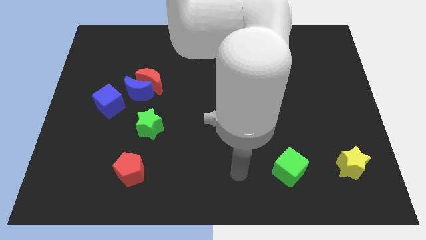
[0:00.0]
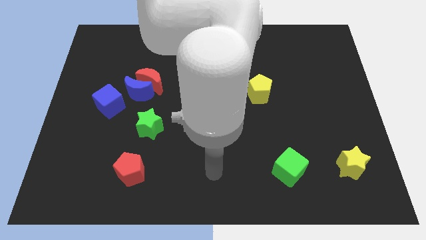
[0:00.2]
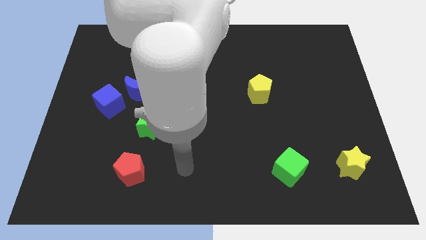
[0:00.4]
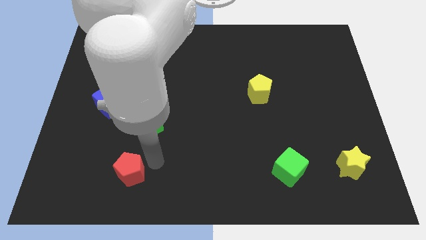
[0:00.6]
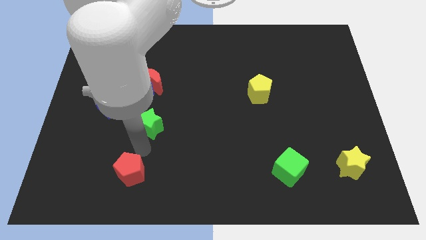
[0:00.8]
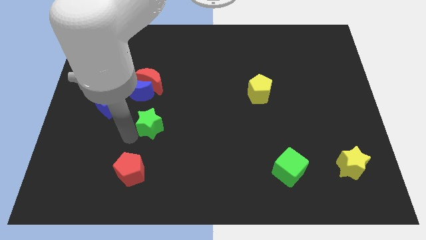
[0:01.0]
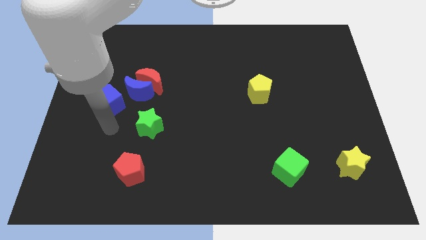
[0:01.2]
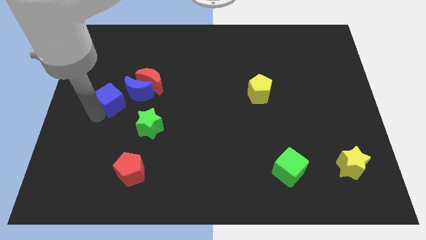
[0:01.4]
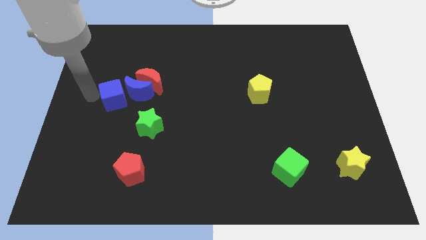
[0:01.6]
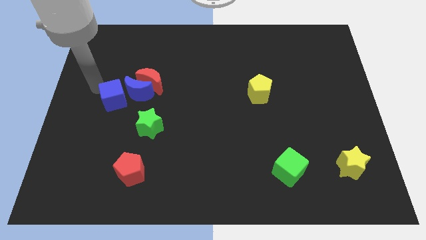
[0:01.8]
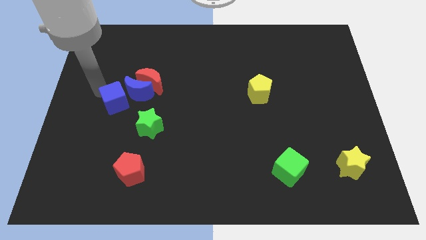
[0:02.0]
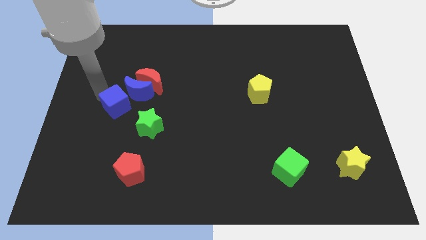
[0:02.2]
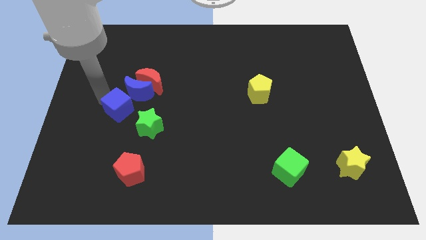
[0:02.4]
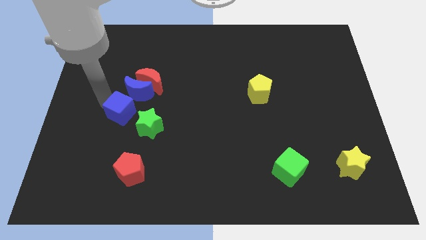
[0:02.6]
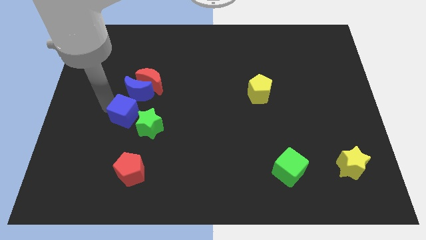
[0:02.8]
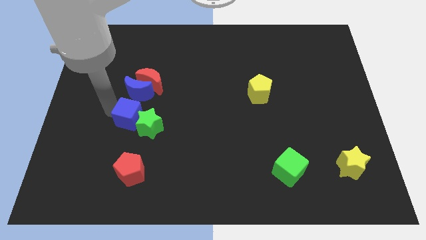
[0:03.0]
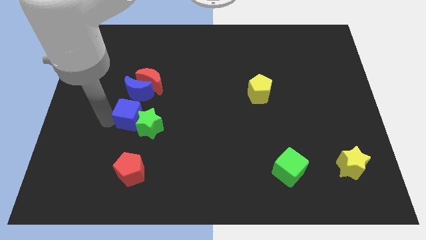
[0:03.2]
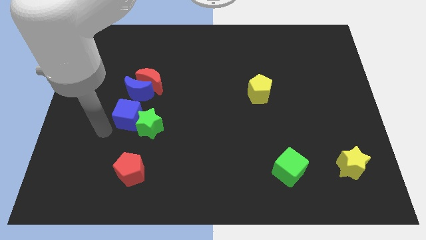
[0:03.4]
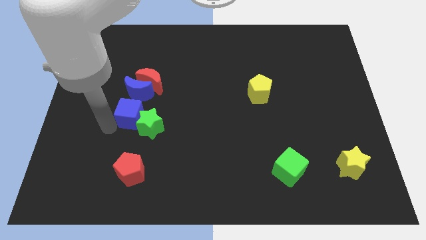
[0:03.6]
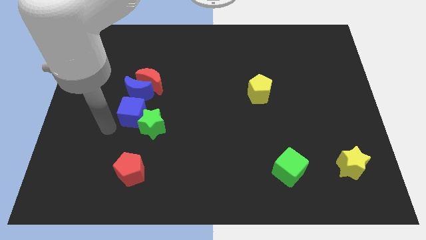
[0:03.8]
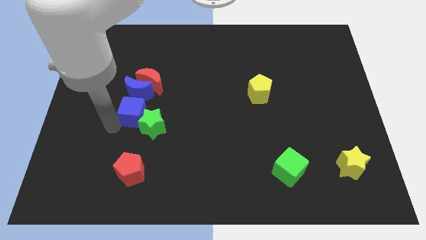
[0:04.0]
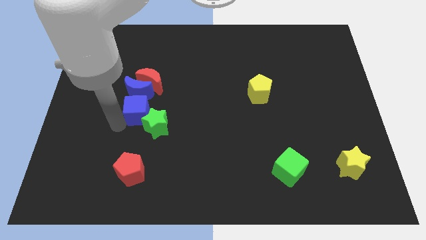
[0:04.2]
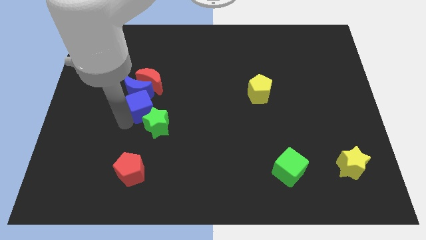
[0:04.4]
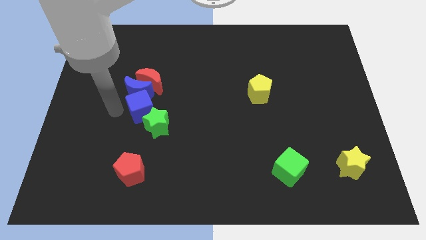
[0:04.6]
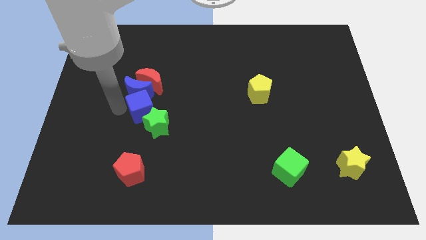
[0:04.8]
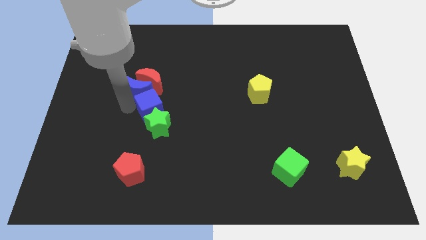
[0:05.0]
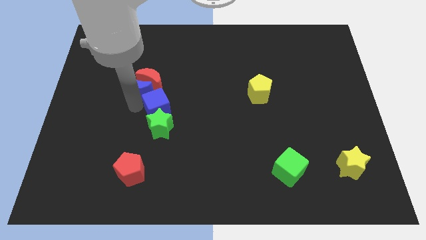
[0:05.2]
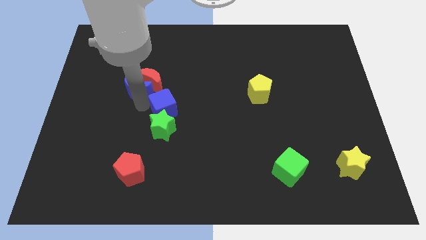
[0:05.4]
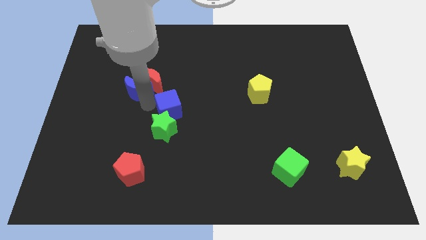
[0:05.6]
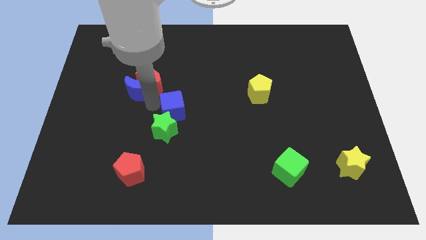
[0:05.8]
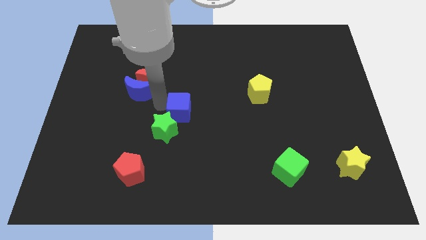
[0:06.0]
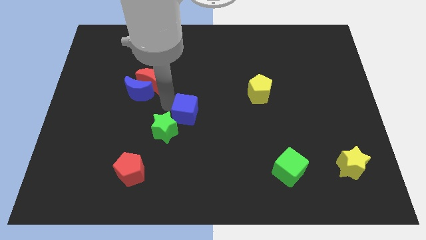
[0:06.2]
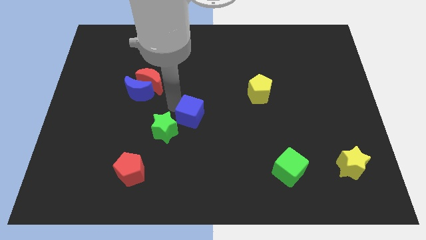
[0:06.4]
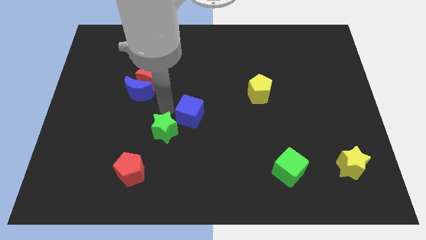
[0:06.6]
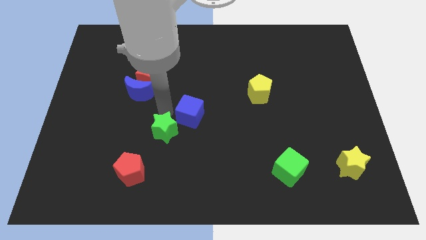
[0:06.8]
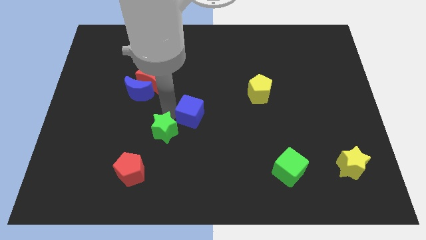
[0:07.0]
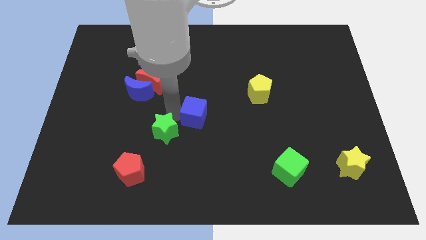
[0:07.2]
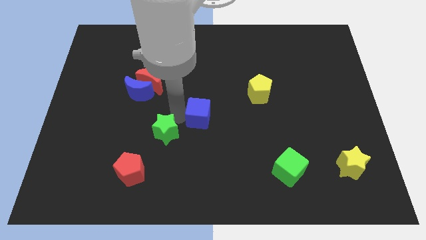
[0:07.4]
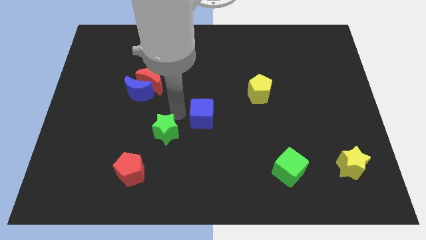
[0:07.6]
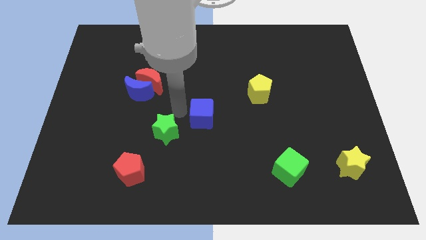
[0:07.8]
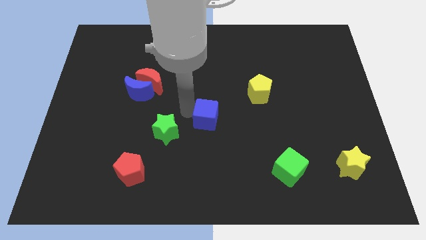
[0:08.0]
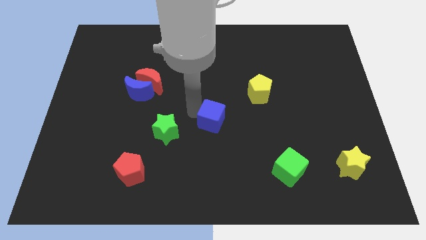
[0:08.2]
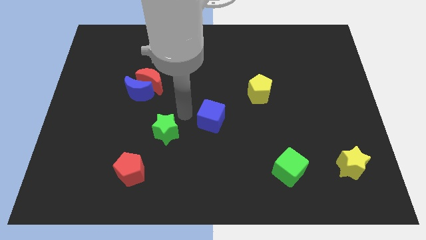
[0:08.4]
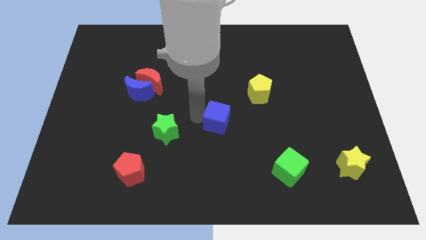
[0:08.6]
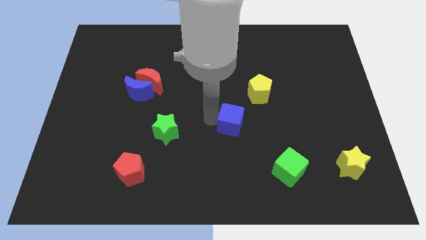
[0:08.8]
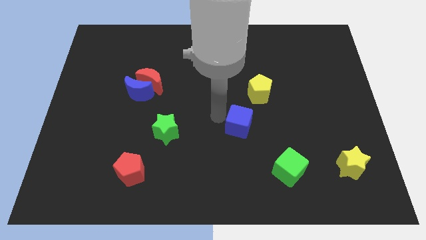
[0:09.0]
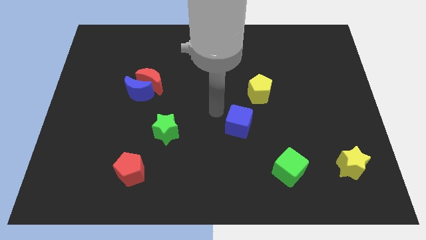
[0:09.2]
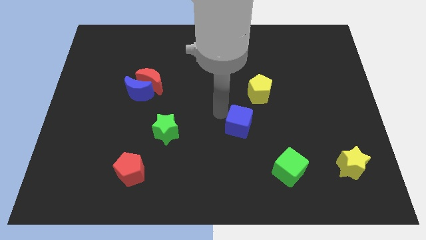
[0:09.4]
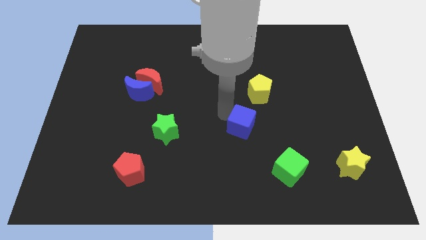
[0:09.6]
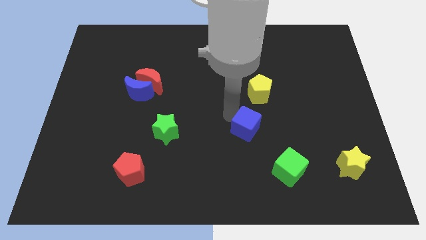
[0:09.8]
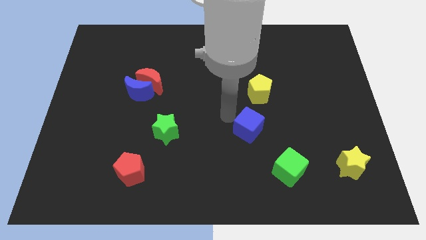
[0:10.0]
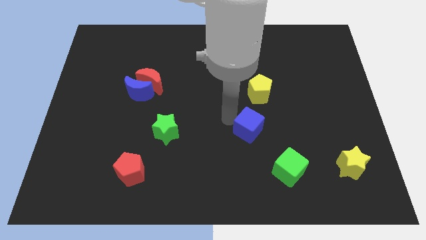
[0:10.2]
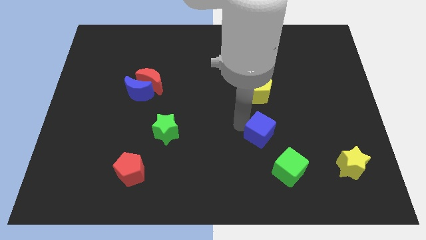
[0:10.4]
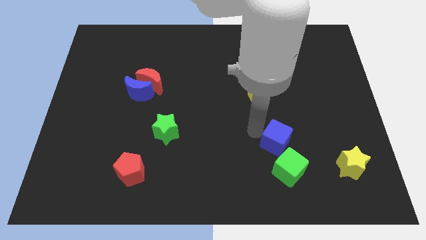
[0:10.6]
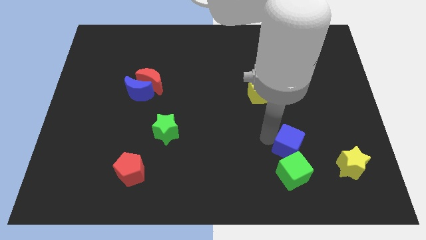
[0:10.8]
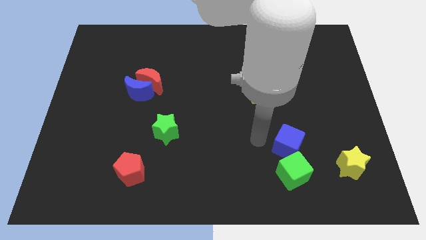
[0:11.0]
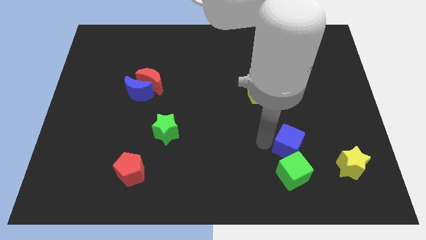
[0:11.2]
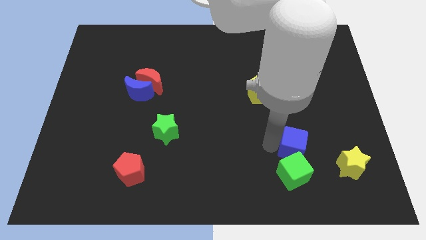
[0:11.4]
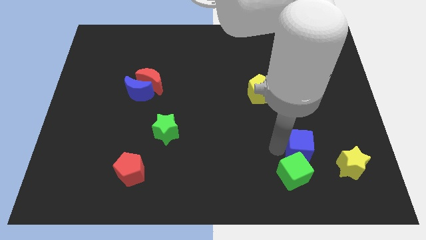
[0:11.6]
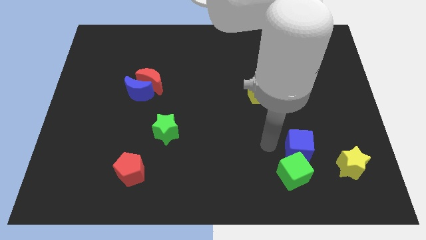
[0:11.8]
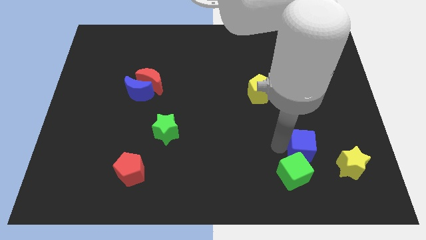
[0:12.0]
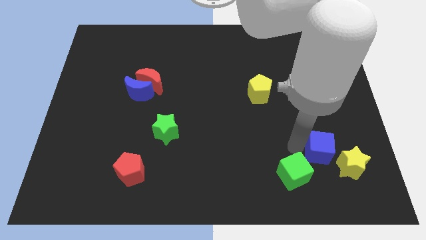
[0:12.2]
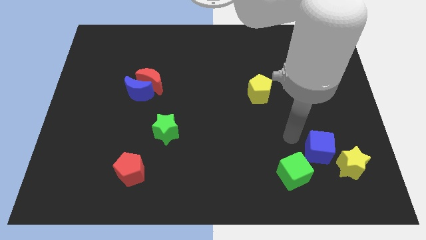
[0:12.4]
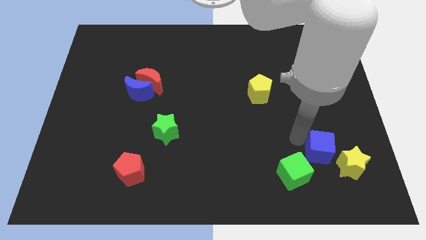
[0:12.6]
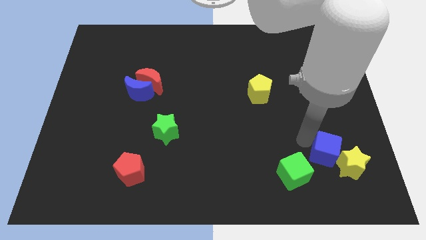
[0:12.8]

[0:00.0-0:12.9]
push the blue cube to the yellow star
